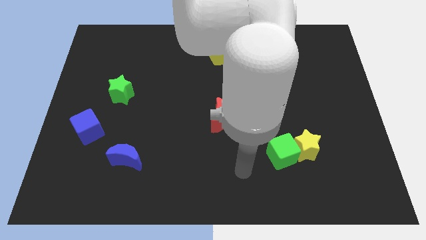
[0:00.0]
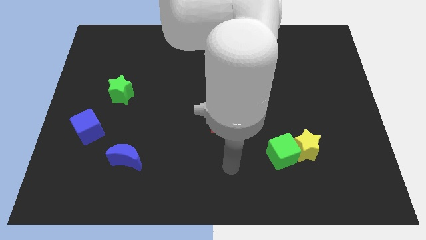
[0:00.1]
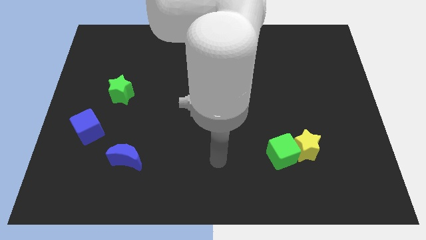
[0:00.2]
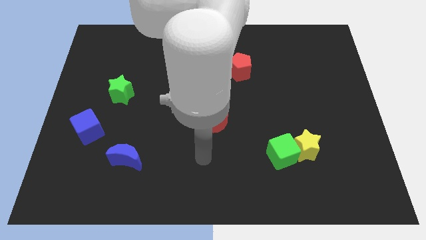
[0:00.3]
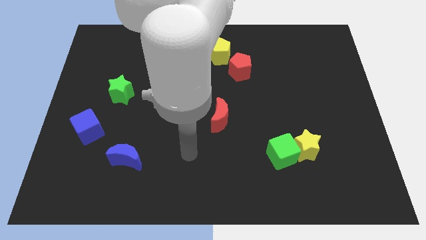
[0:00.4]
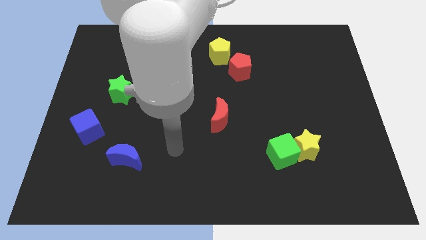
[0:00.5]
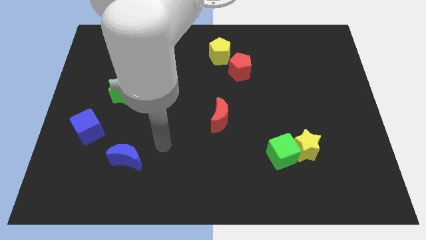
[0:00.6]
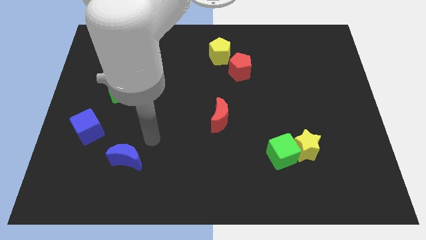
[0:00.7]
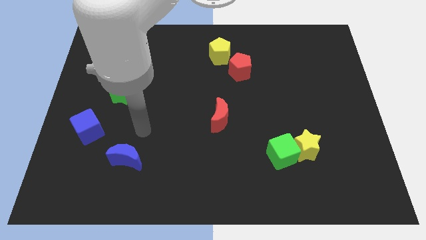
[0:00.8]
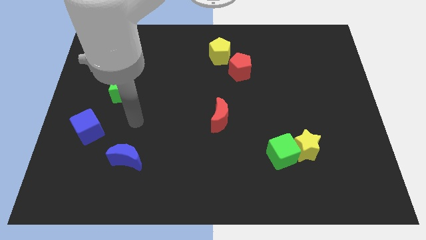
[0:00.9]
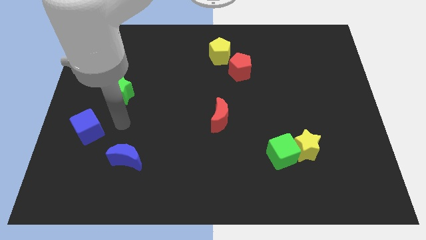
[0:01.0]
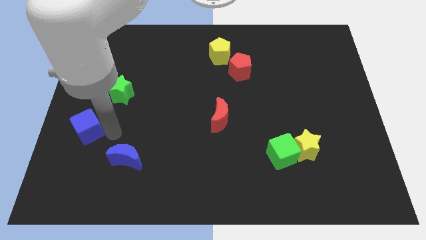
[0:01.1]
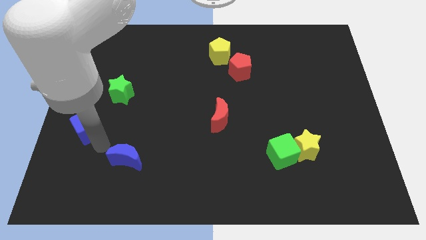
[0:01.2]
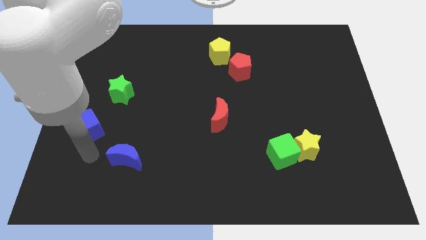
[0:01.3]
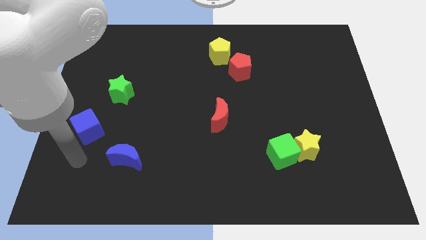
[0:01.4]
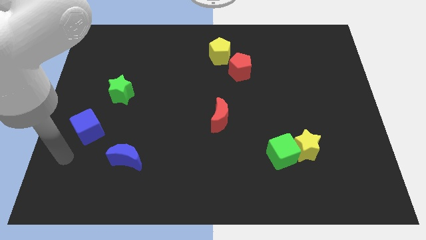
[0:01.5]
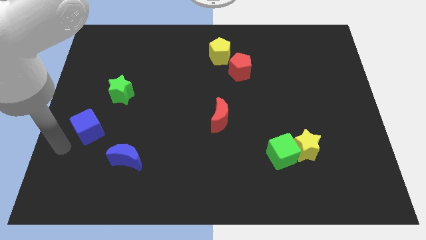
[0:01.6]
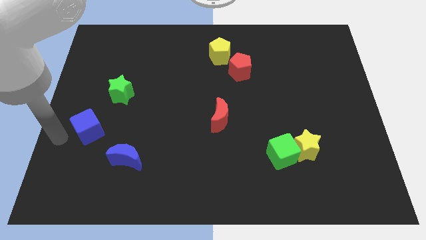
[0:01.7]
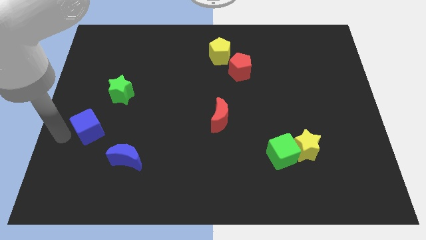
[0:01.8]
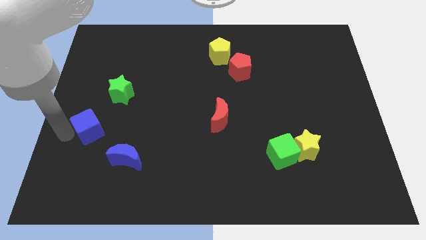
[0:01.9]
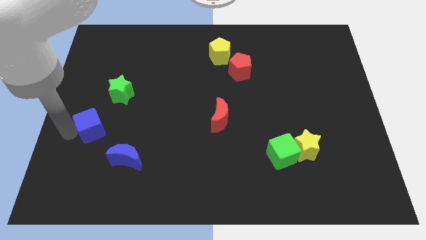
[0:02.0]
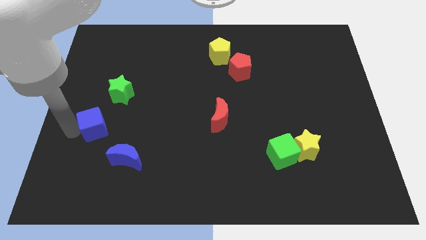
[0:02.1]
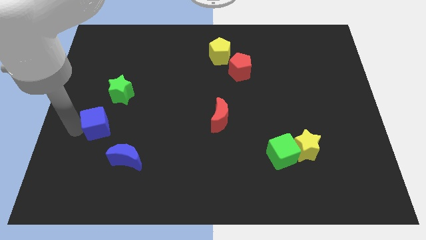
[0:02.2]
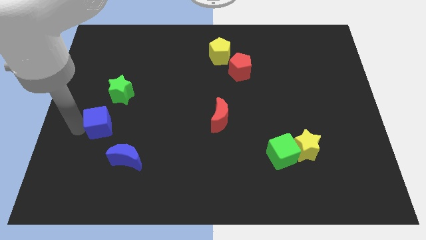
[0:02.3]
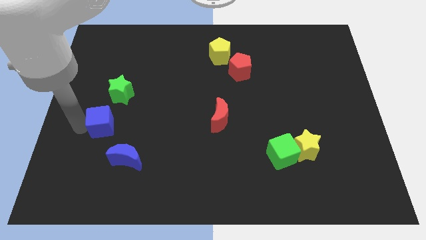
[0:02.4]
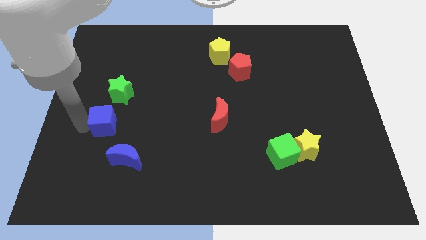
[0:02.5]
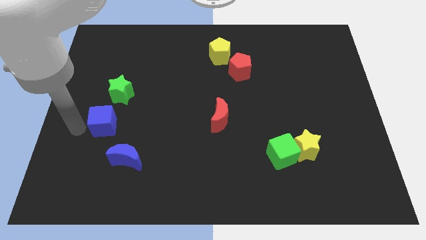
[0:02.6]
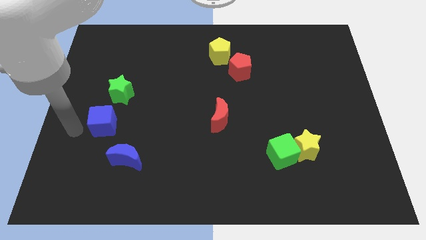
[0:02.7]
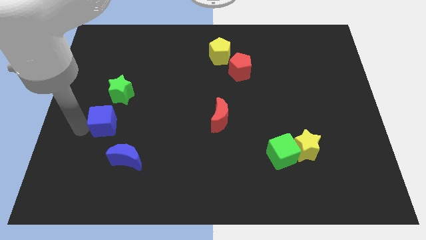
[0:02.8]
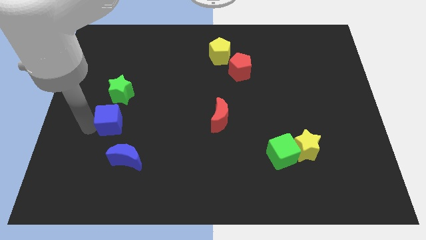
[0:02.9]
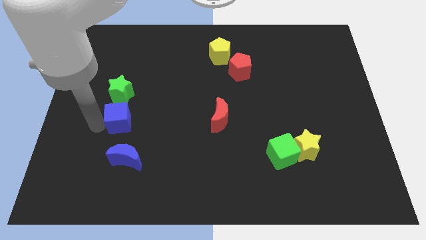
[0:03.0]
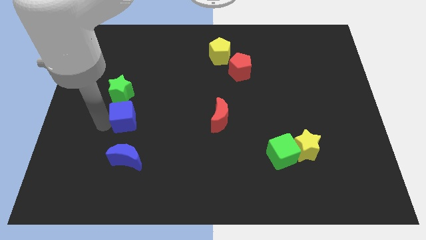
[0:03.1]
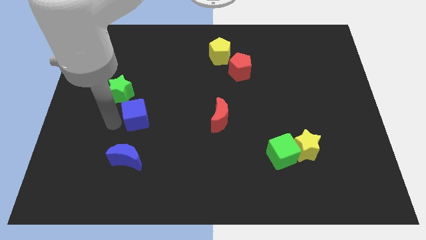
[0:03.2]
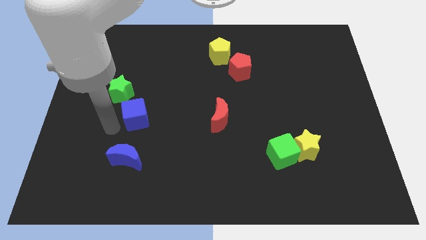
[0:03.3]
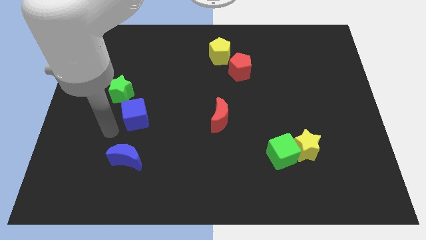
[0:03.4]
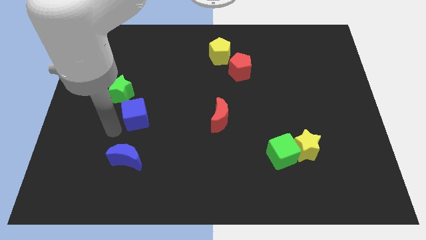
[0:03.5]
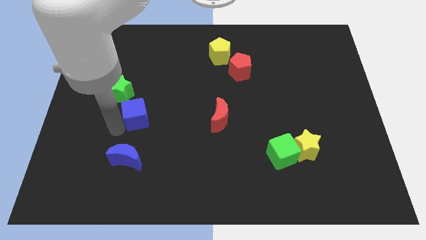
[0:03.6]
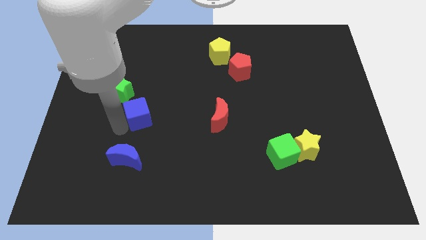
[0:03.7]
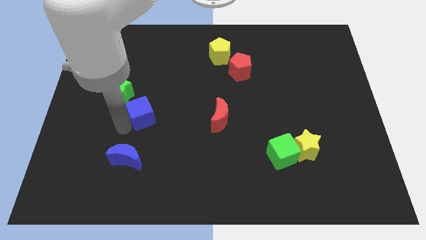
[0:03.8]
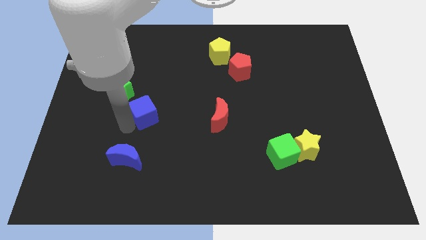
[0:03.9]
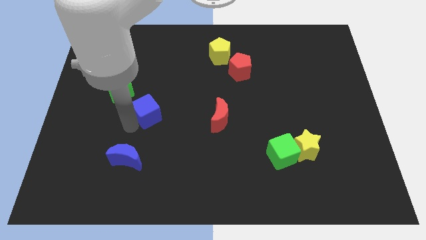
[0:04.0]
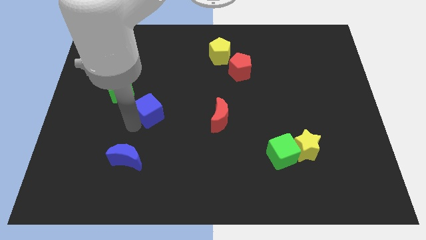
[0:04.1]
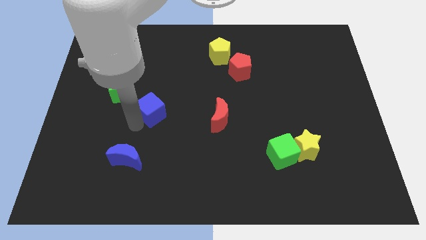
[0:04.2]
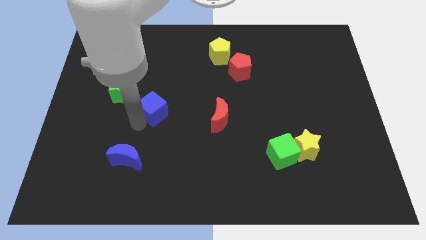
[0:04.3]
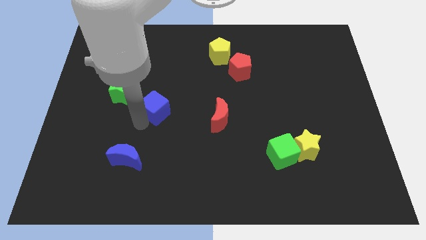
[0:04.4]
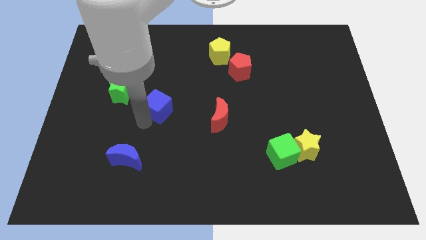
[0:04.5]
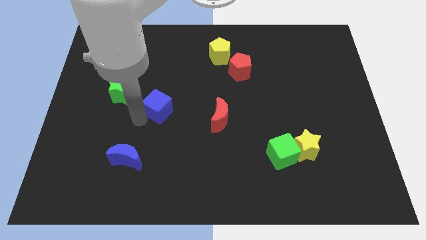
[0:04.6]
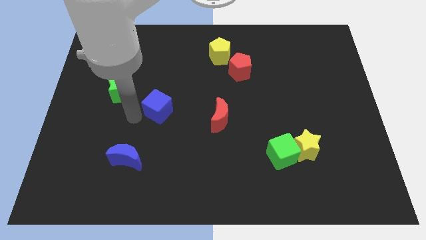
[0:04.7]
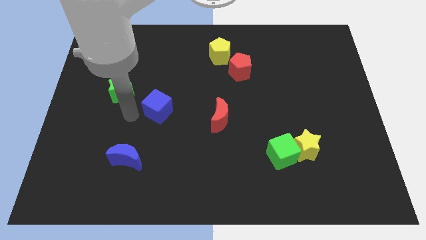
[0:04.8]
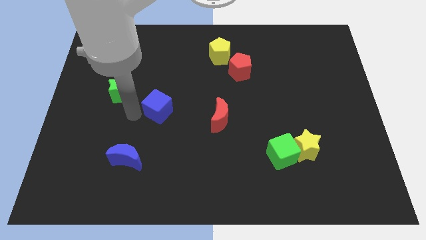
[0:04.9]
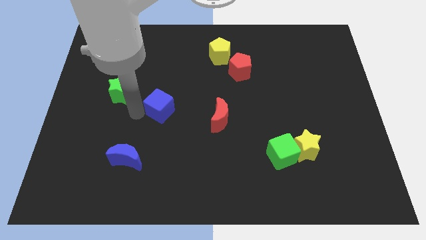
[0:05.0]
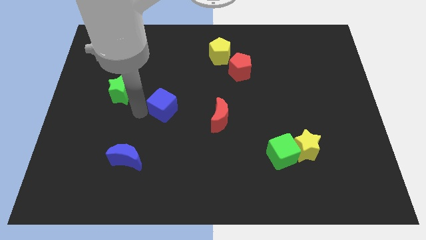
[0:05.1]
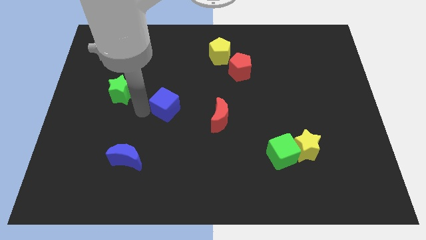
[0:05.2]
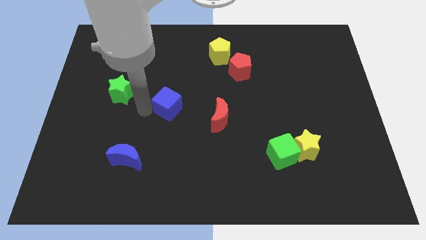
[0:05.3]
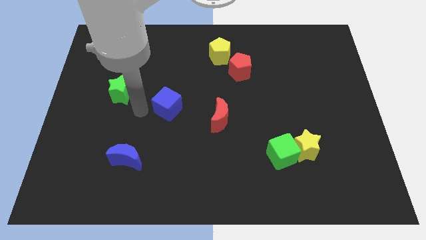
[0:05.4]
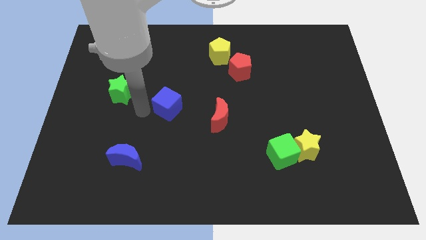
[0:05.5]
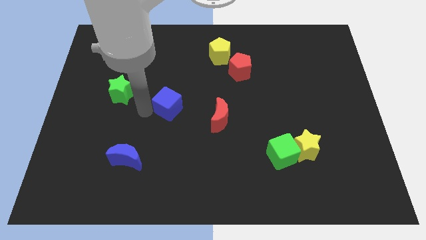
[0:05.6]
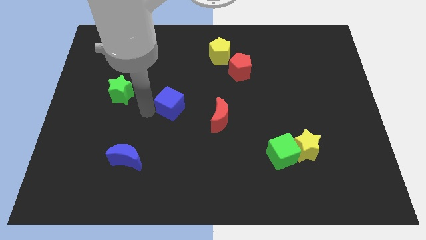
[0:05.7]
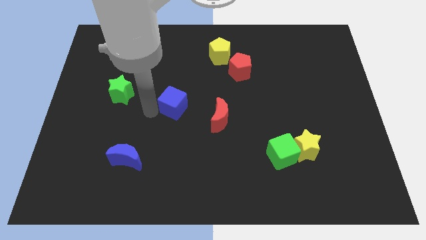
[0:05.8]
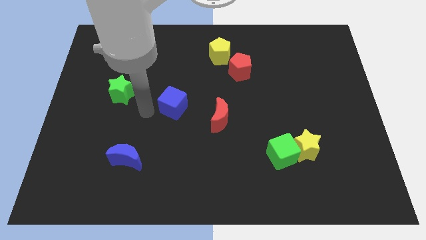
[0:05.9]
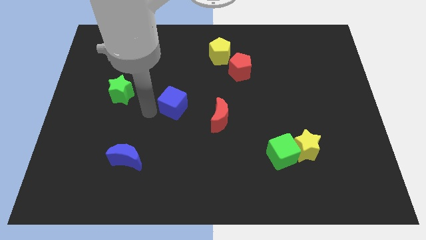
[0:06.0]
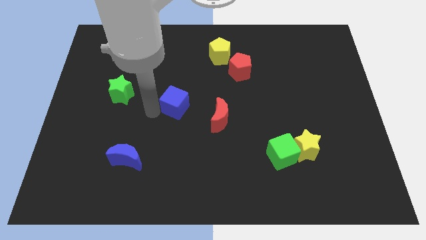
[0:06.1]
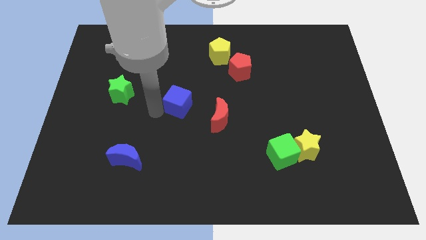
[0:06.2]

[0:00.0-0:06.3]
put the blue cube to the top left of the red moon
